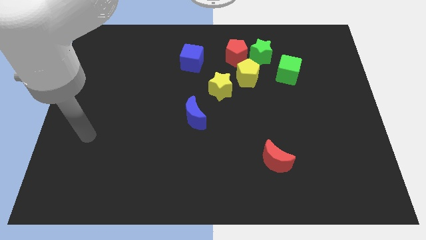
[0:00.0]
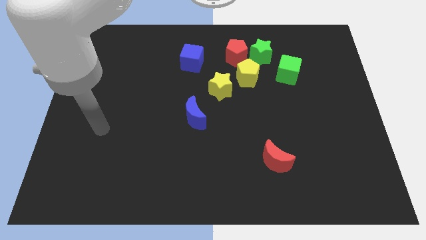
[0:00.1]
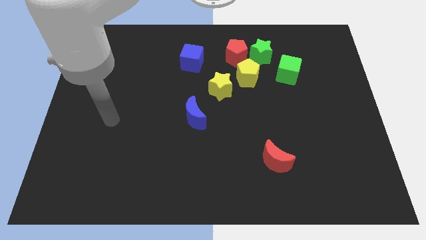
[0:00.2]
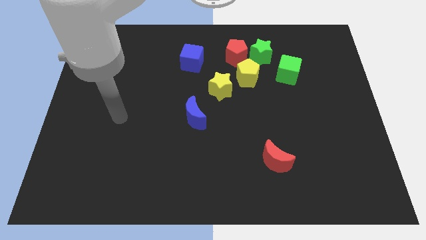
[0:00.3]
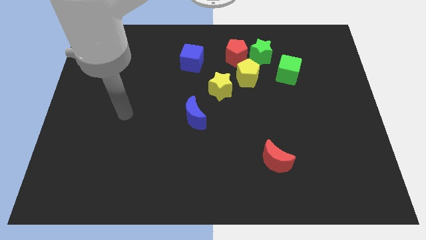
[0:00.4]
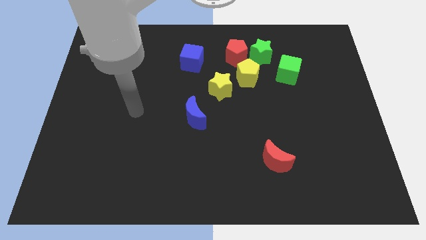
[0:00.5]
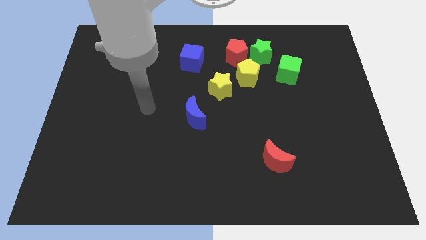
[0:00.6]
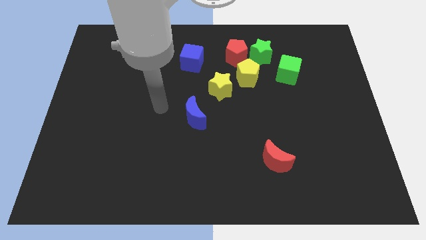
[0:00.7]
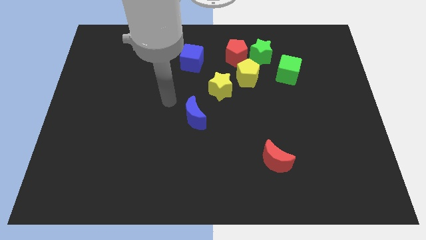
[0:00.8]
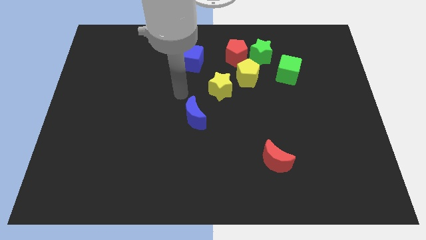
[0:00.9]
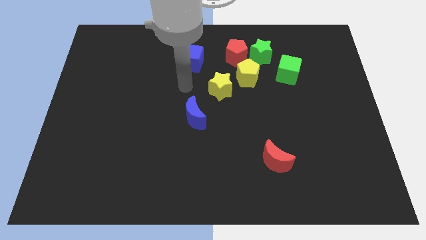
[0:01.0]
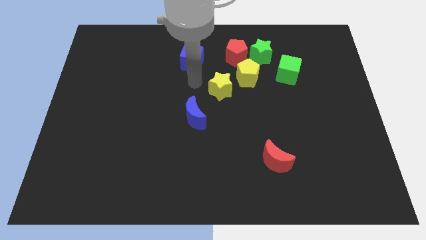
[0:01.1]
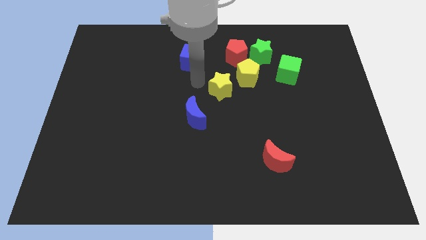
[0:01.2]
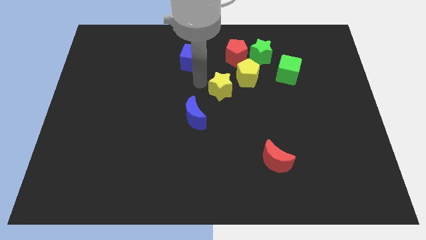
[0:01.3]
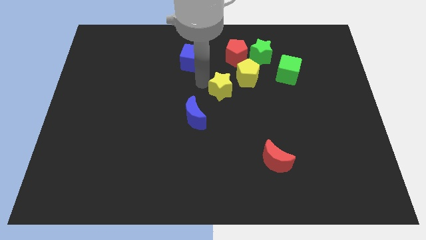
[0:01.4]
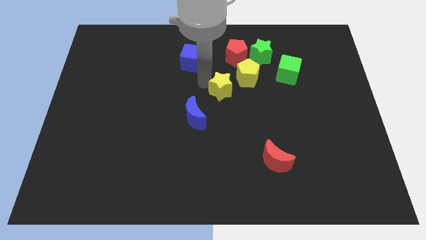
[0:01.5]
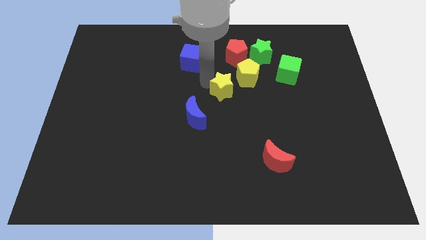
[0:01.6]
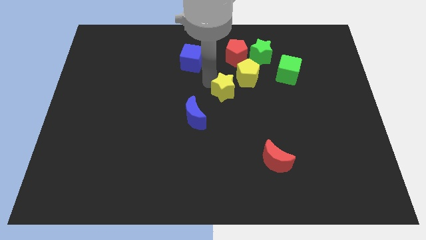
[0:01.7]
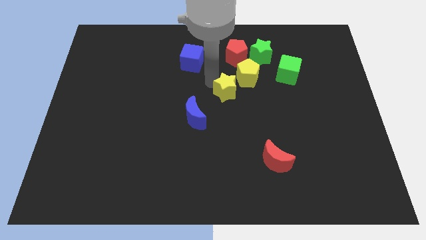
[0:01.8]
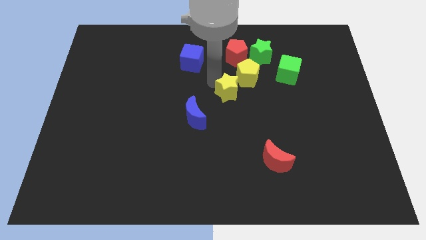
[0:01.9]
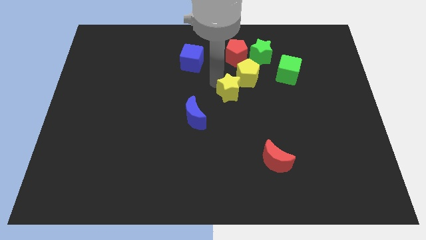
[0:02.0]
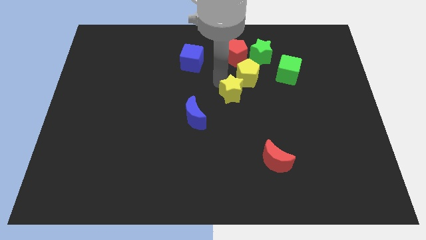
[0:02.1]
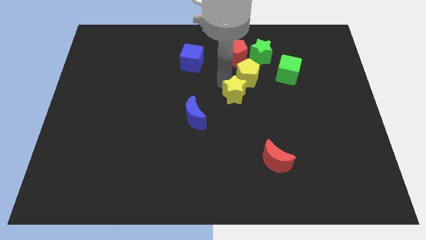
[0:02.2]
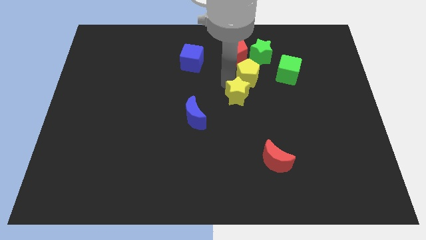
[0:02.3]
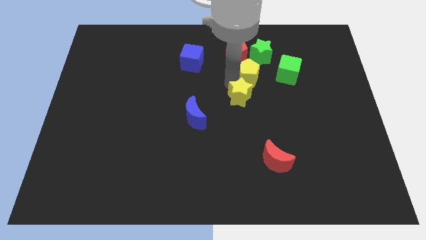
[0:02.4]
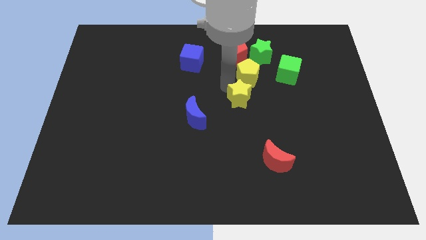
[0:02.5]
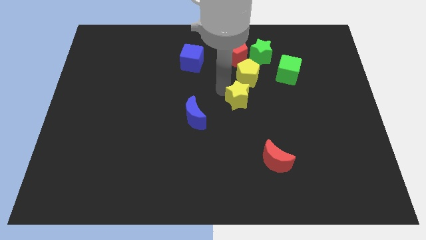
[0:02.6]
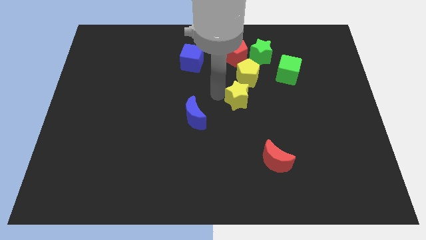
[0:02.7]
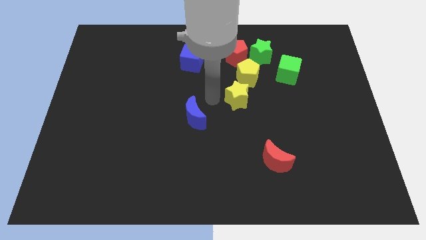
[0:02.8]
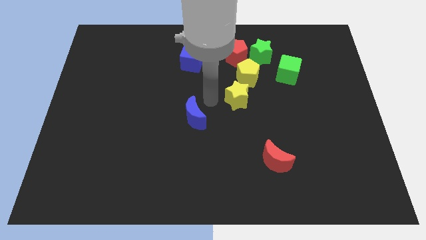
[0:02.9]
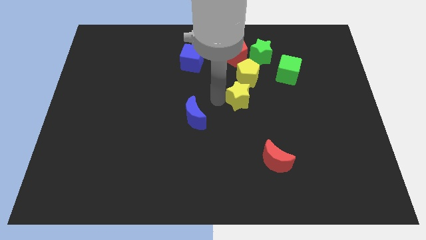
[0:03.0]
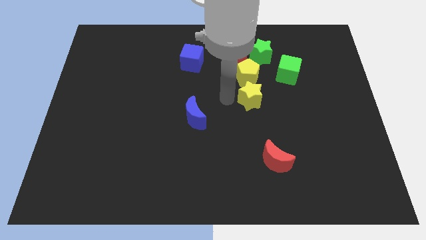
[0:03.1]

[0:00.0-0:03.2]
push the yellow star to the right a bit

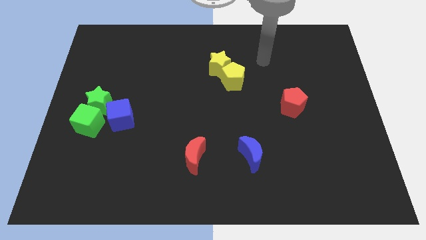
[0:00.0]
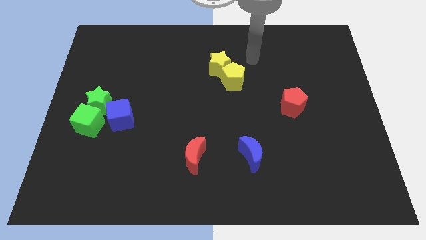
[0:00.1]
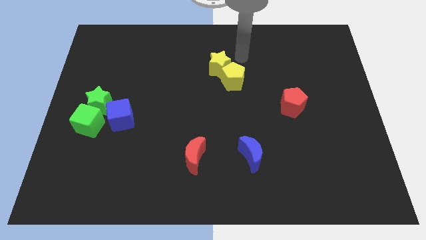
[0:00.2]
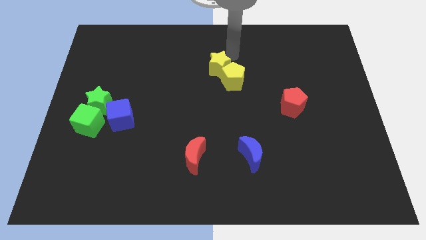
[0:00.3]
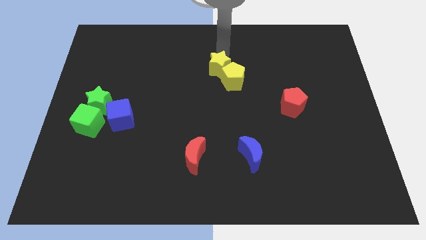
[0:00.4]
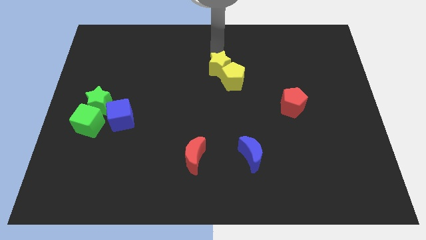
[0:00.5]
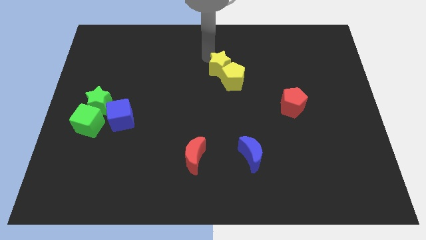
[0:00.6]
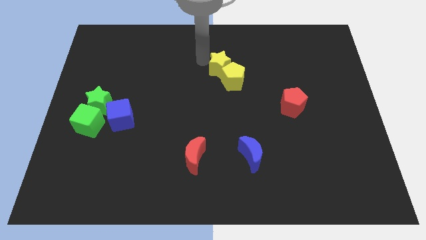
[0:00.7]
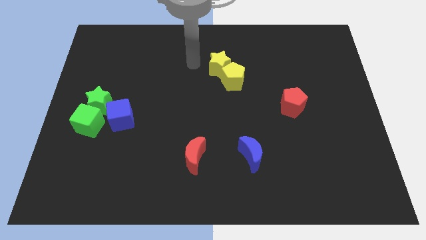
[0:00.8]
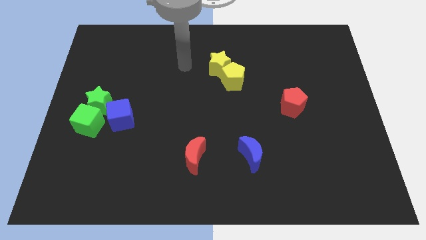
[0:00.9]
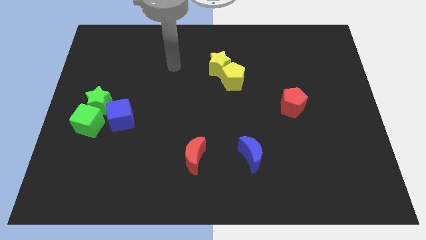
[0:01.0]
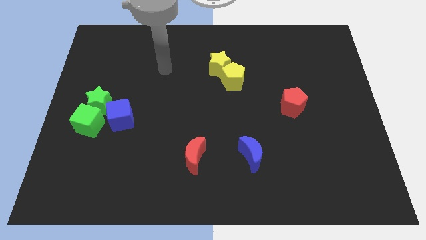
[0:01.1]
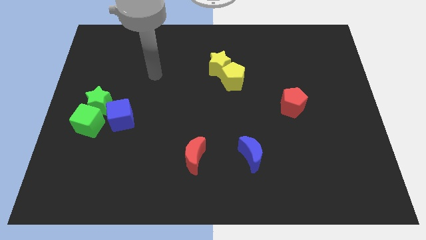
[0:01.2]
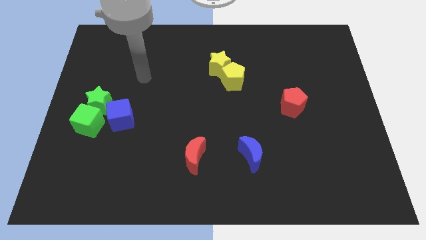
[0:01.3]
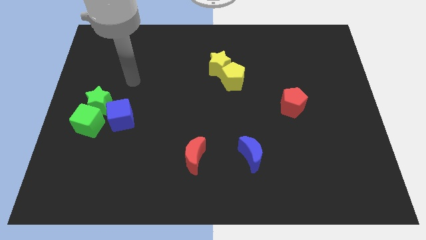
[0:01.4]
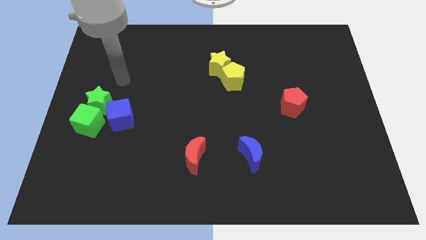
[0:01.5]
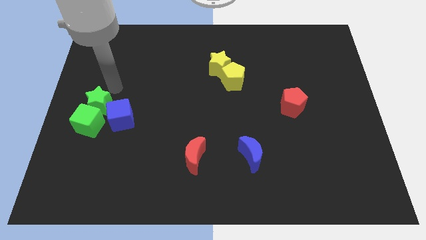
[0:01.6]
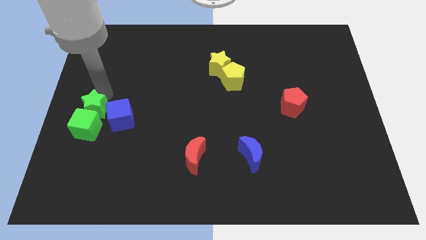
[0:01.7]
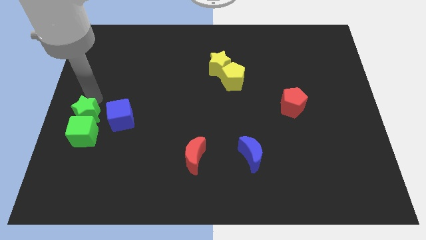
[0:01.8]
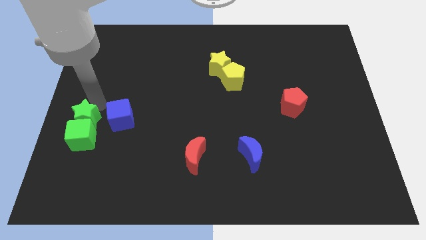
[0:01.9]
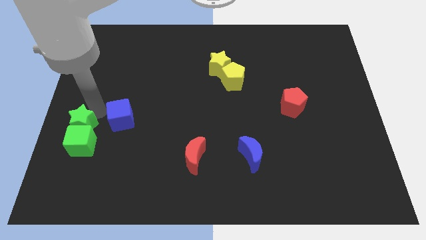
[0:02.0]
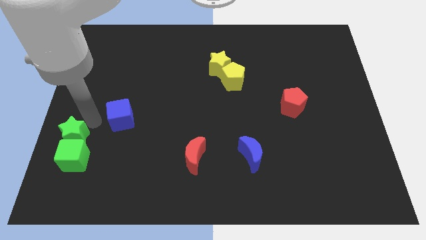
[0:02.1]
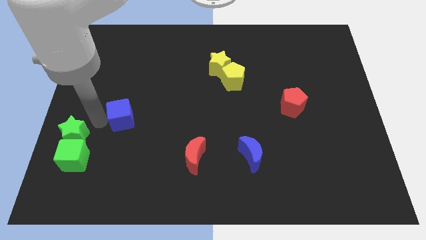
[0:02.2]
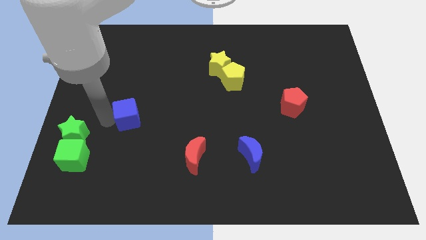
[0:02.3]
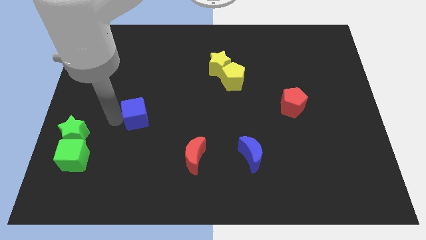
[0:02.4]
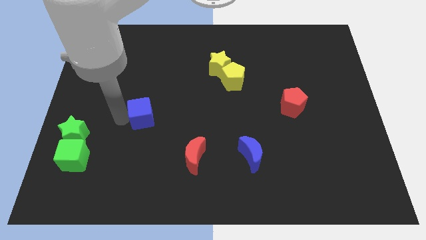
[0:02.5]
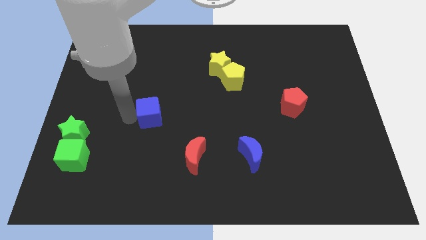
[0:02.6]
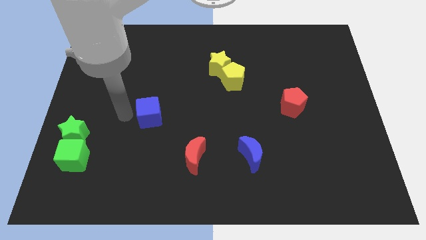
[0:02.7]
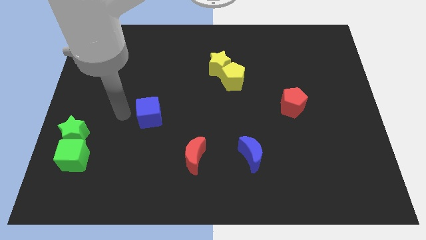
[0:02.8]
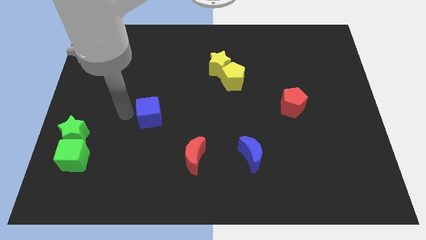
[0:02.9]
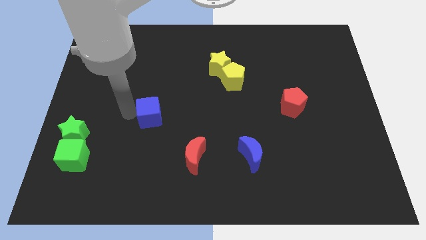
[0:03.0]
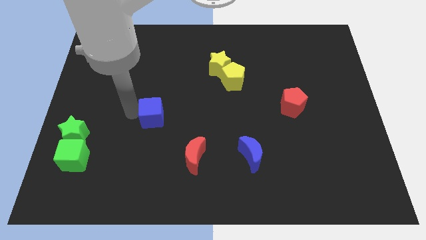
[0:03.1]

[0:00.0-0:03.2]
slide the blue cube right somewhat

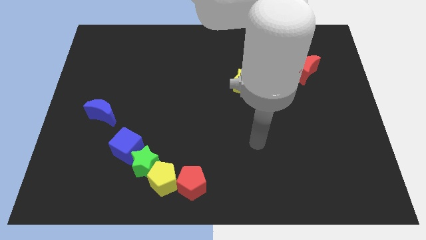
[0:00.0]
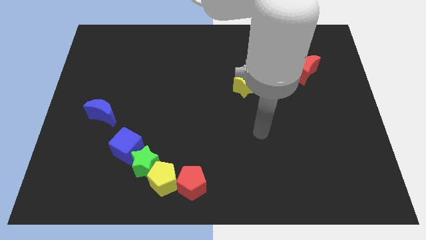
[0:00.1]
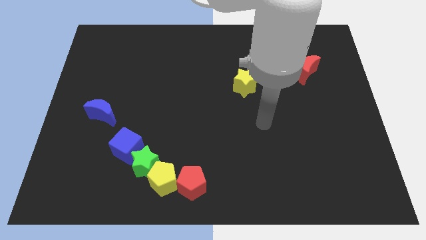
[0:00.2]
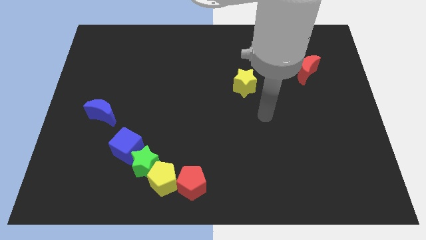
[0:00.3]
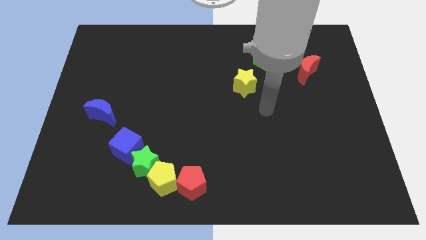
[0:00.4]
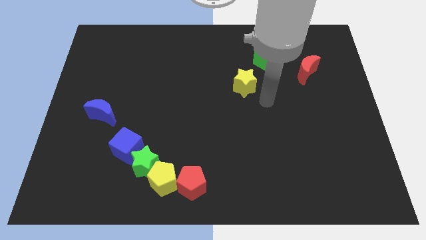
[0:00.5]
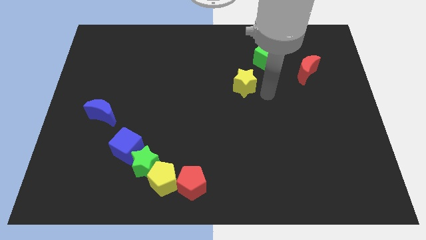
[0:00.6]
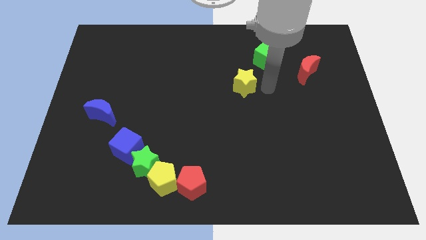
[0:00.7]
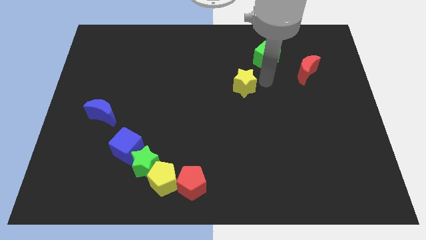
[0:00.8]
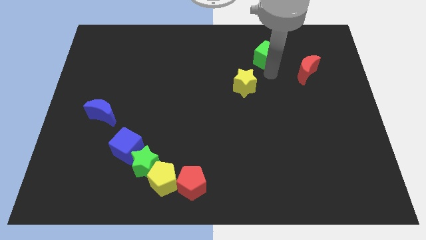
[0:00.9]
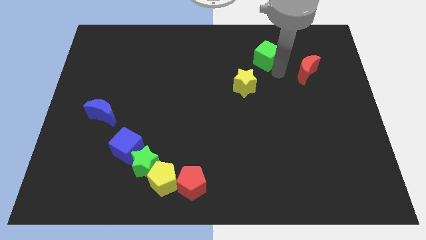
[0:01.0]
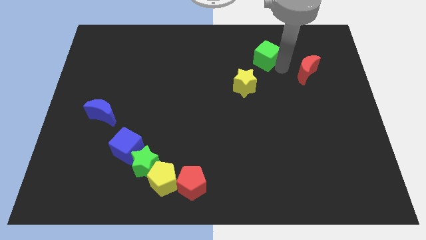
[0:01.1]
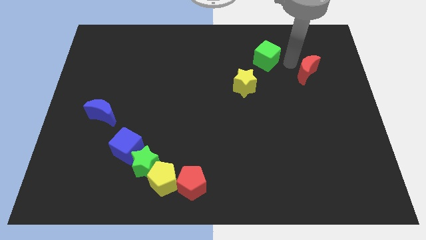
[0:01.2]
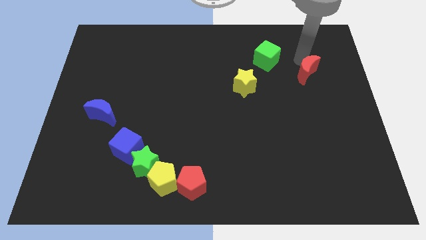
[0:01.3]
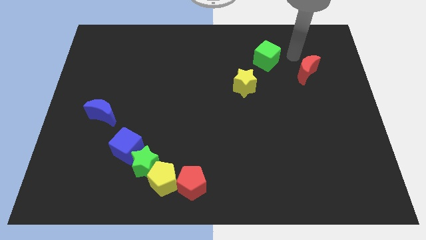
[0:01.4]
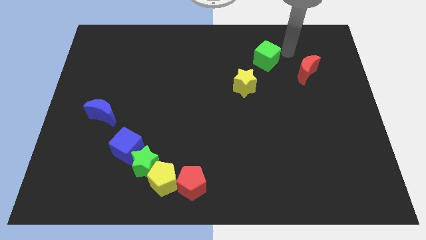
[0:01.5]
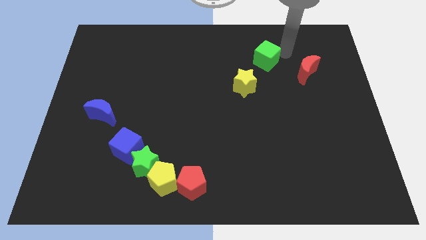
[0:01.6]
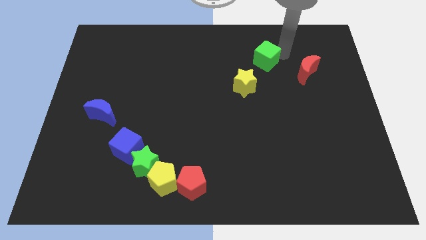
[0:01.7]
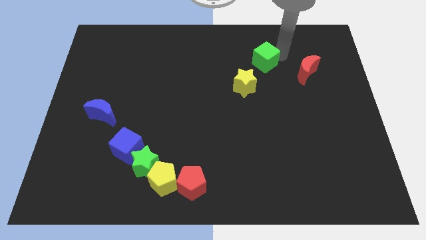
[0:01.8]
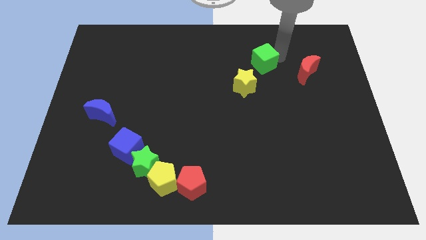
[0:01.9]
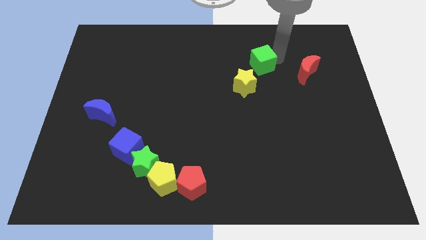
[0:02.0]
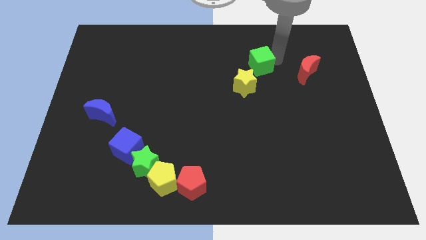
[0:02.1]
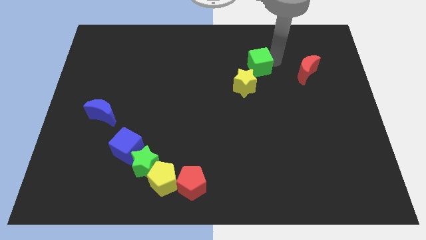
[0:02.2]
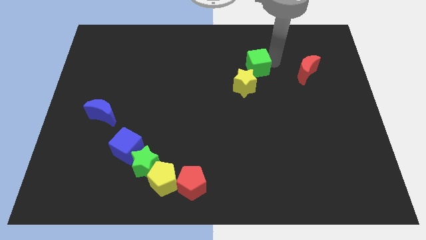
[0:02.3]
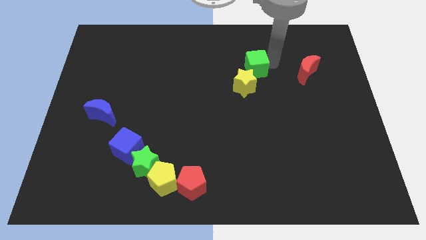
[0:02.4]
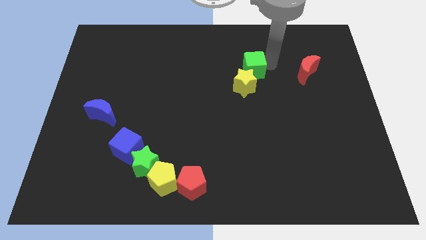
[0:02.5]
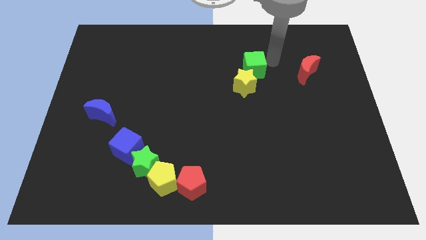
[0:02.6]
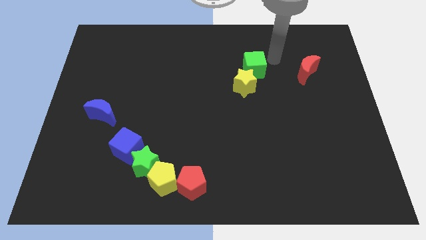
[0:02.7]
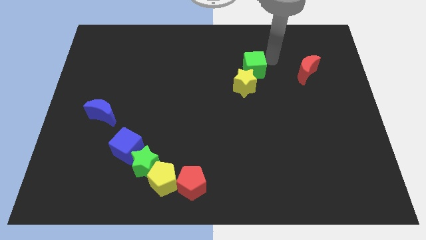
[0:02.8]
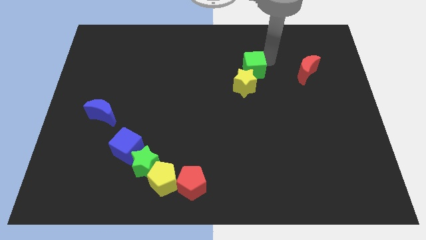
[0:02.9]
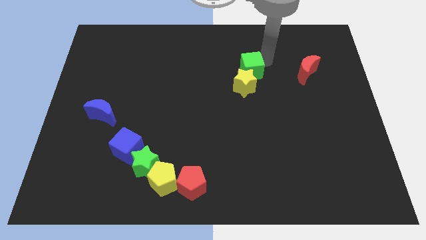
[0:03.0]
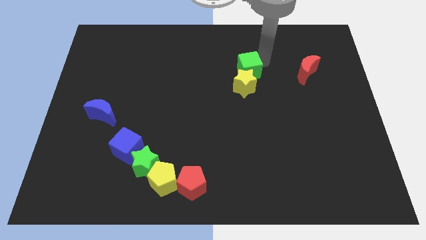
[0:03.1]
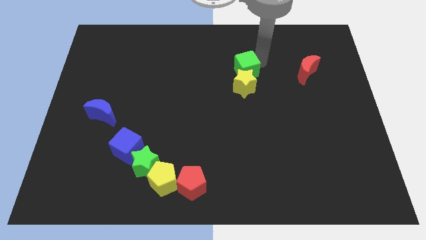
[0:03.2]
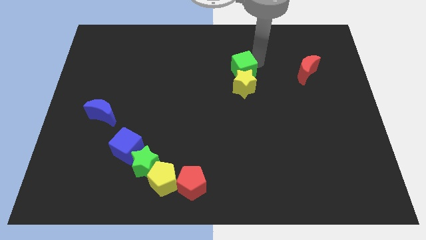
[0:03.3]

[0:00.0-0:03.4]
slightly slide the green cube downwards and left
